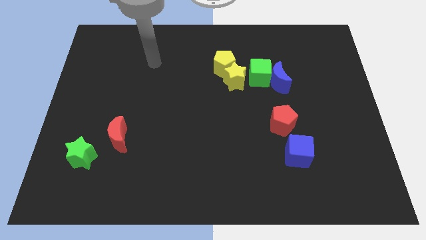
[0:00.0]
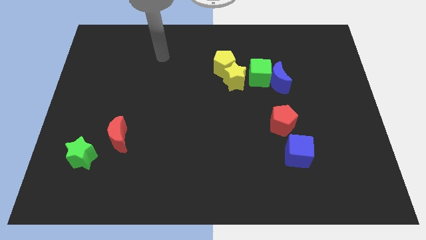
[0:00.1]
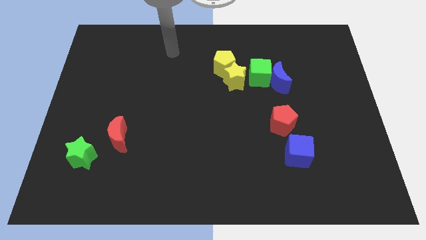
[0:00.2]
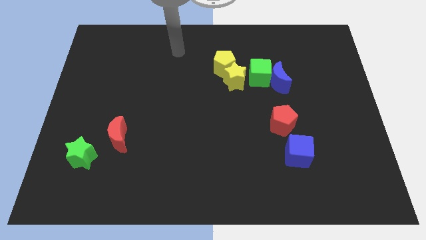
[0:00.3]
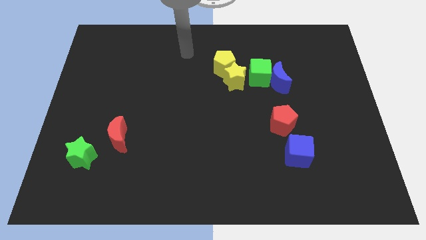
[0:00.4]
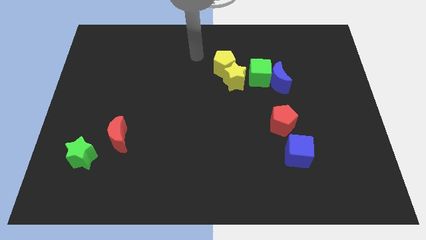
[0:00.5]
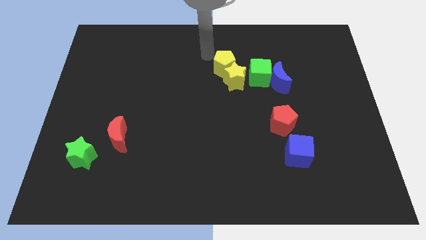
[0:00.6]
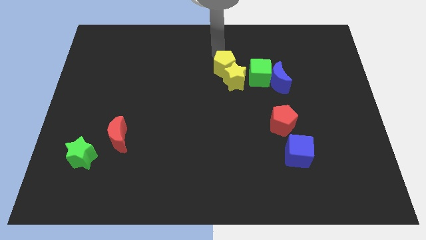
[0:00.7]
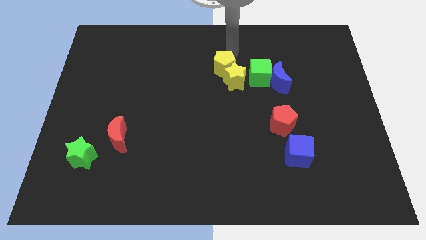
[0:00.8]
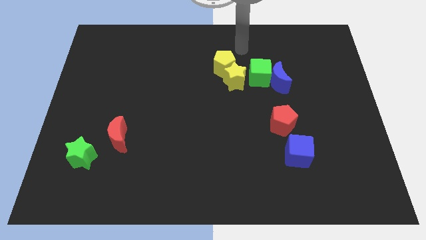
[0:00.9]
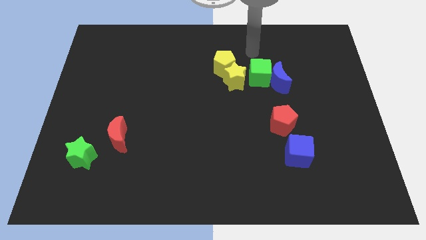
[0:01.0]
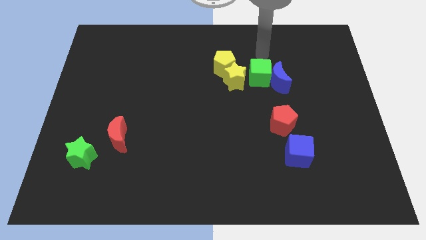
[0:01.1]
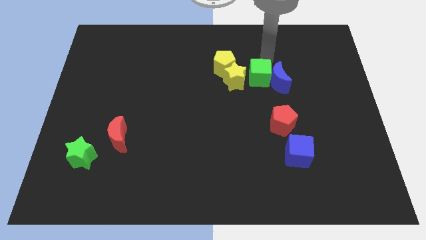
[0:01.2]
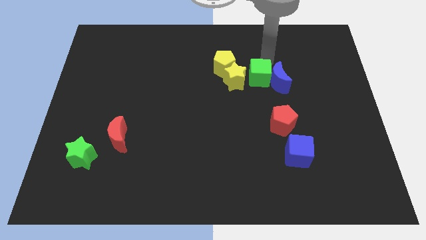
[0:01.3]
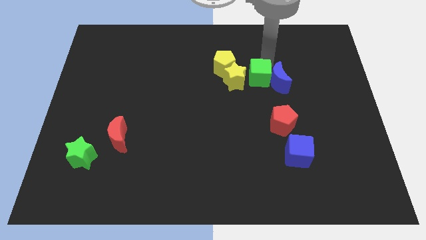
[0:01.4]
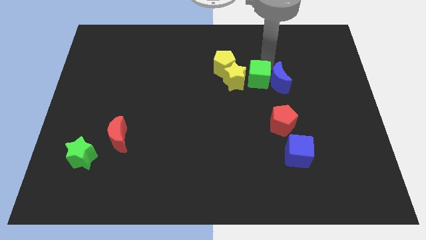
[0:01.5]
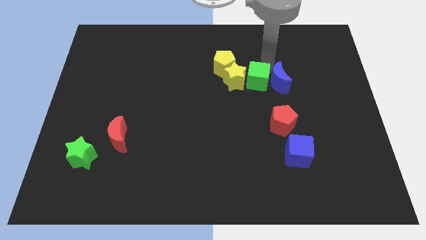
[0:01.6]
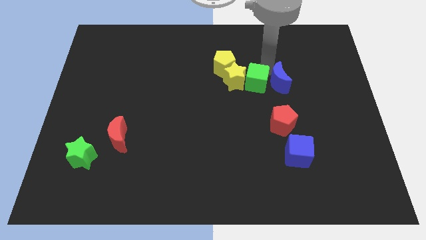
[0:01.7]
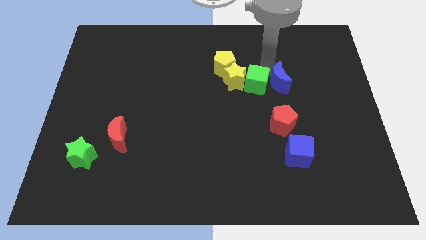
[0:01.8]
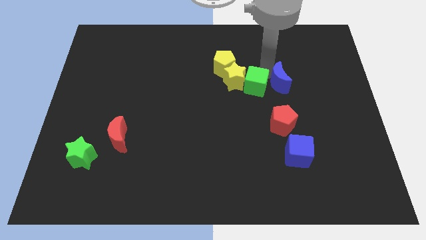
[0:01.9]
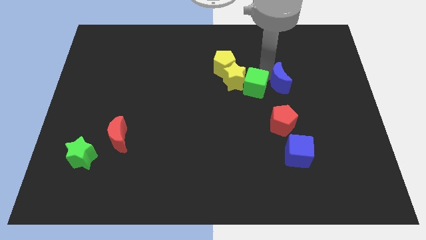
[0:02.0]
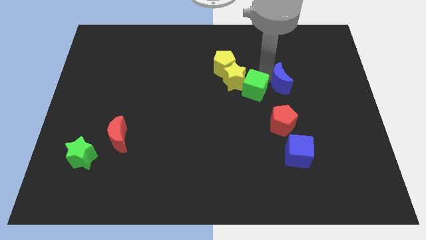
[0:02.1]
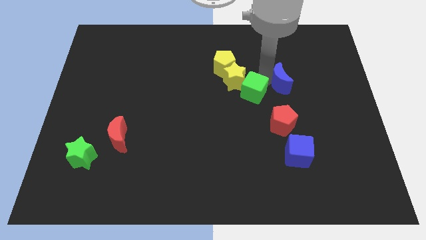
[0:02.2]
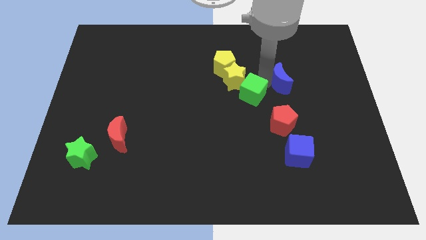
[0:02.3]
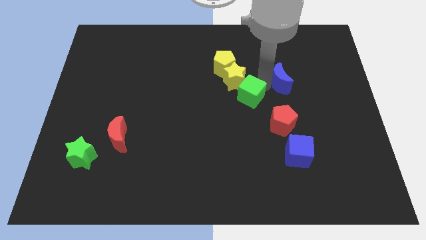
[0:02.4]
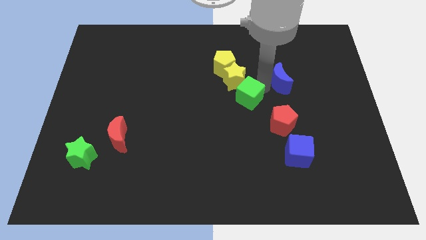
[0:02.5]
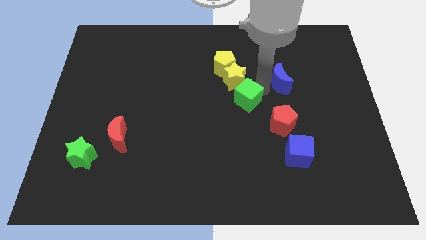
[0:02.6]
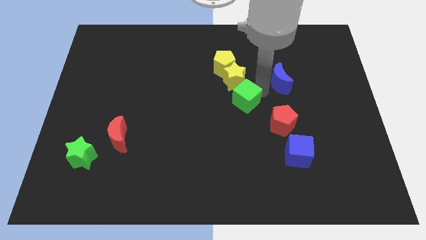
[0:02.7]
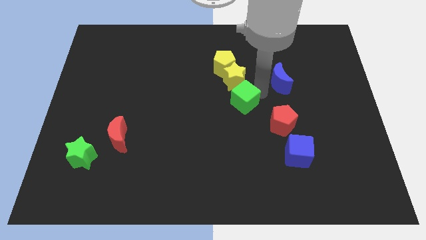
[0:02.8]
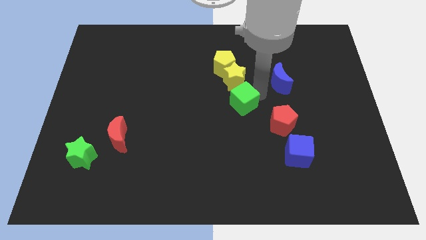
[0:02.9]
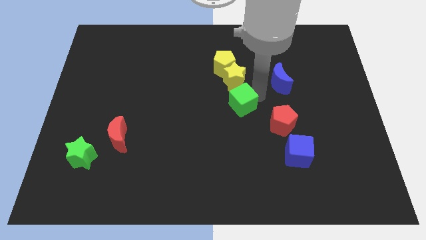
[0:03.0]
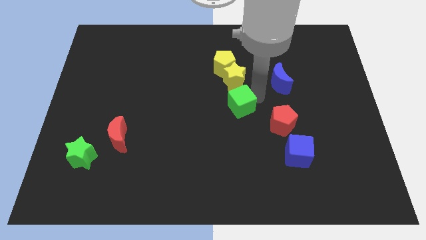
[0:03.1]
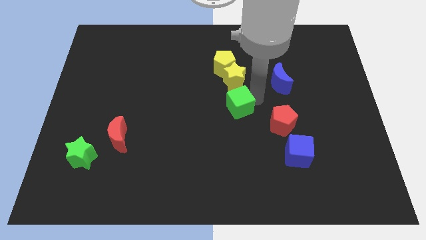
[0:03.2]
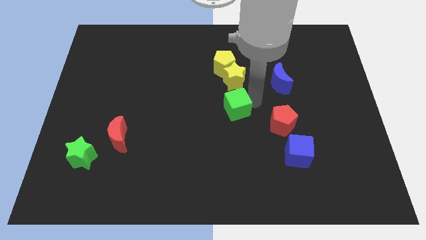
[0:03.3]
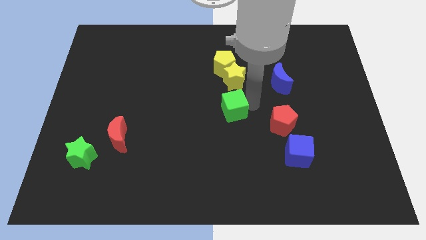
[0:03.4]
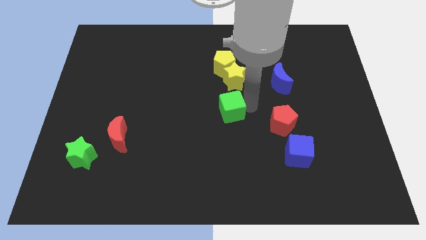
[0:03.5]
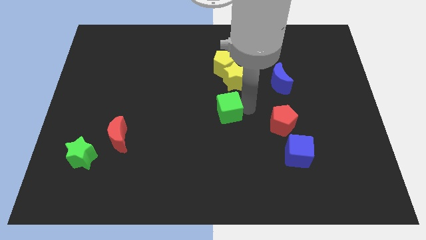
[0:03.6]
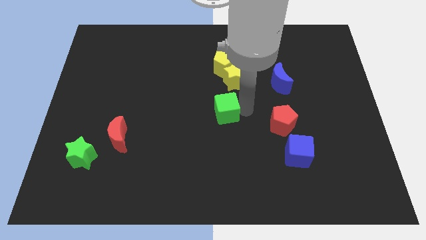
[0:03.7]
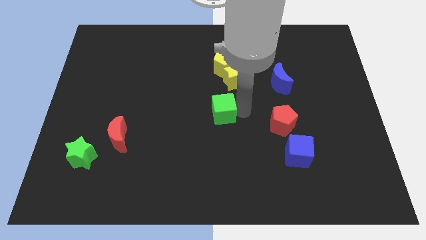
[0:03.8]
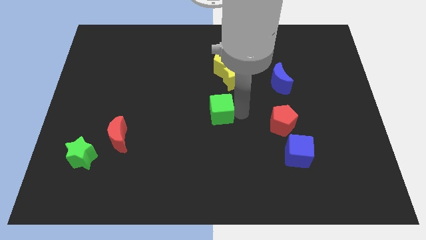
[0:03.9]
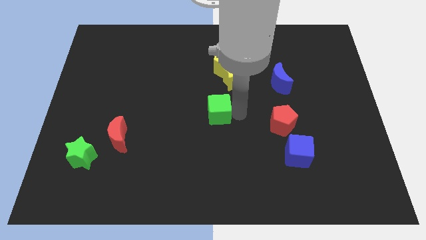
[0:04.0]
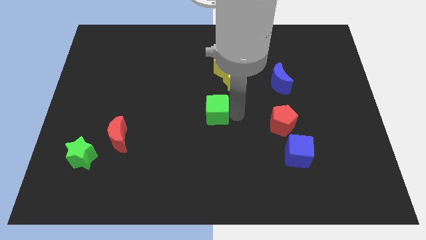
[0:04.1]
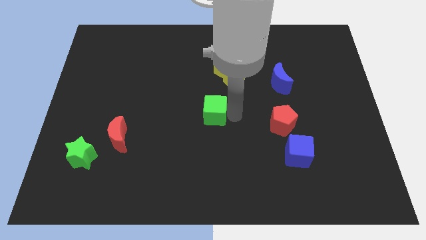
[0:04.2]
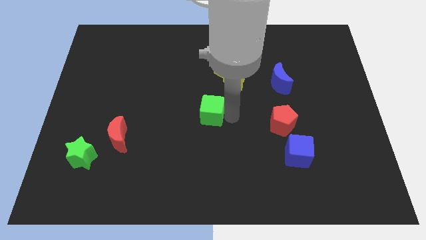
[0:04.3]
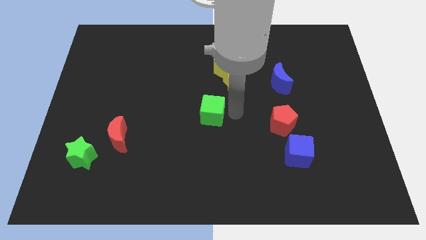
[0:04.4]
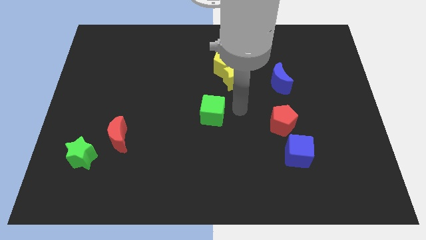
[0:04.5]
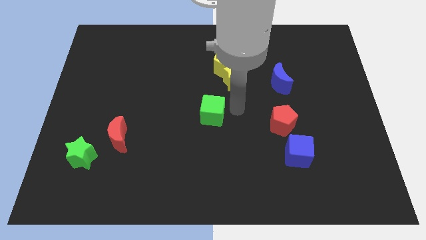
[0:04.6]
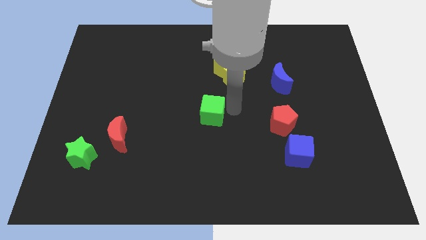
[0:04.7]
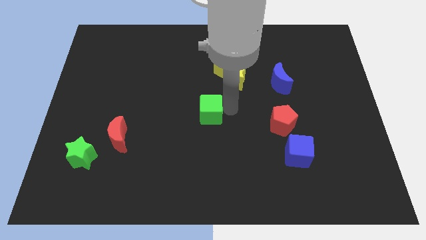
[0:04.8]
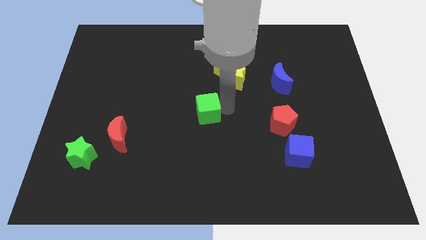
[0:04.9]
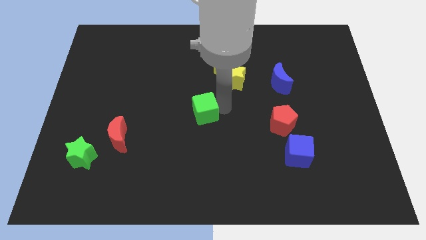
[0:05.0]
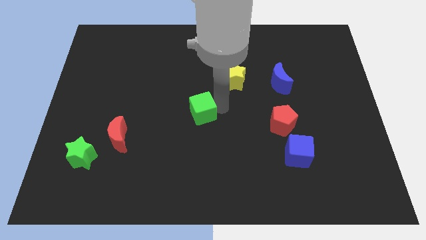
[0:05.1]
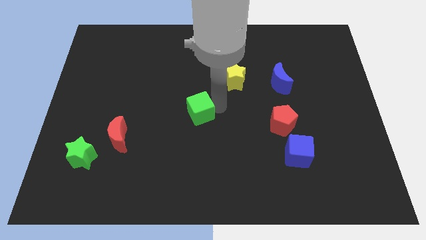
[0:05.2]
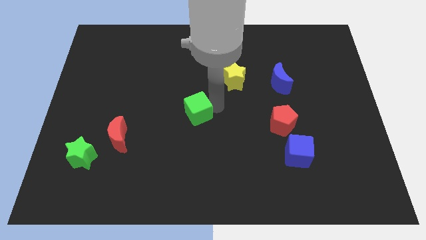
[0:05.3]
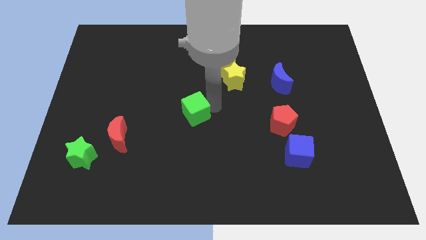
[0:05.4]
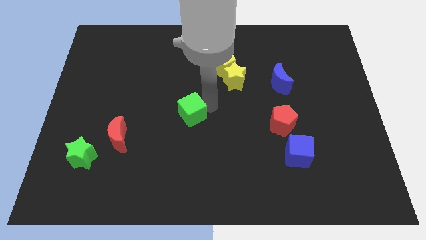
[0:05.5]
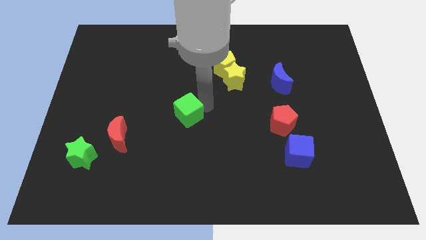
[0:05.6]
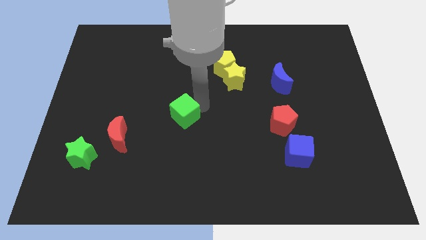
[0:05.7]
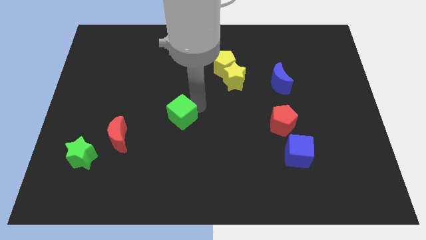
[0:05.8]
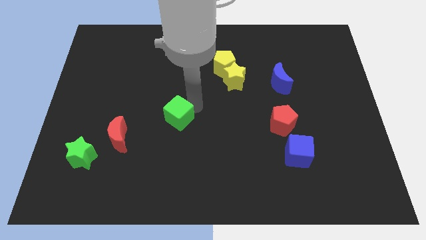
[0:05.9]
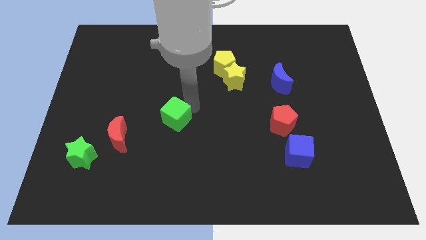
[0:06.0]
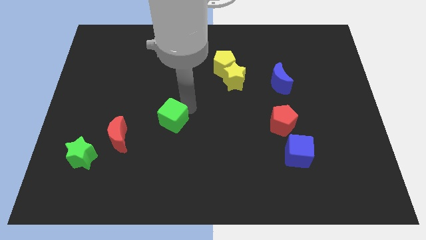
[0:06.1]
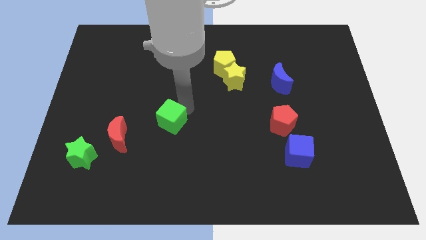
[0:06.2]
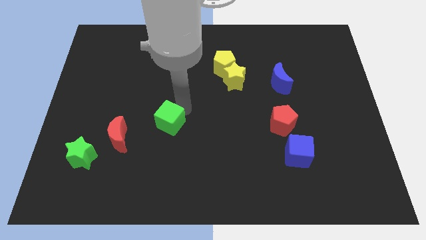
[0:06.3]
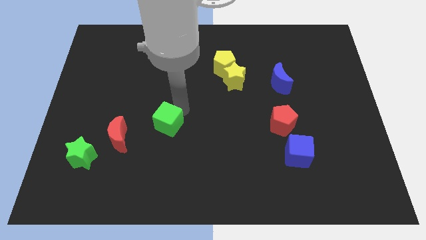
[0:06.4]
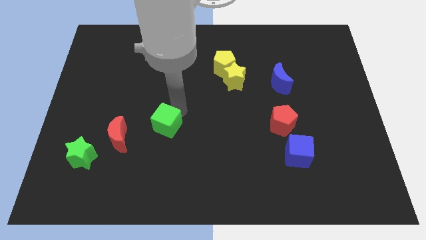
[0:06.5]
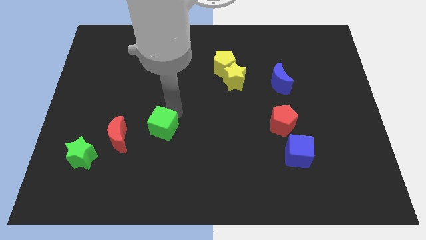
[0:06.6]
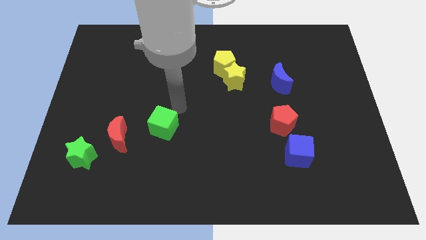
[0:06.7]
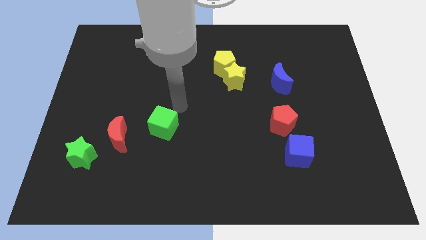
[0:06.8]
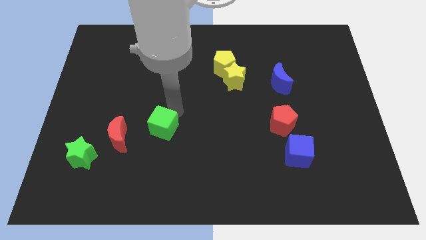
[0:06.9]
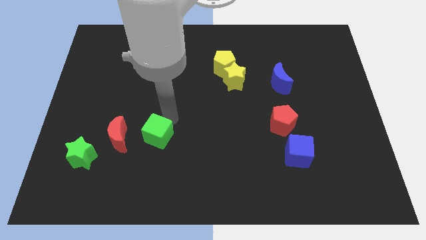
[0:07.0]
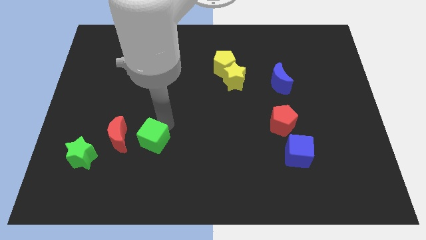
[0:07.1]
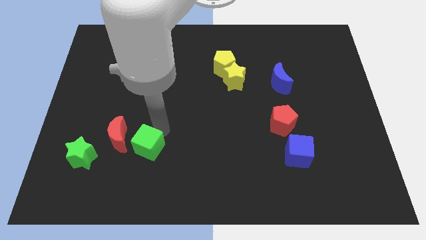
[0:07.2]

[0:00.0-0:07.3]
slide the green cube to the bottom right of the red moon
